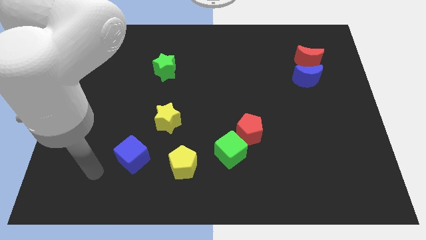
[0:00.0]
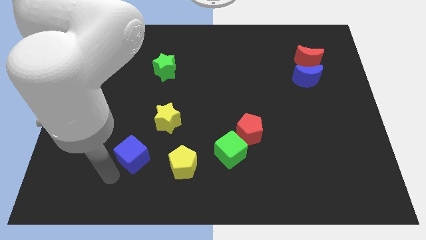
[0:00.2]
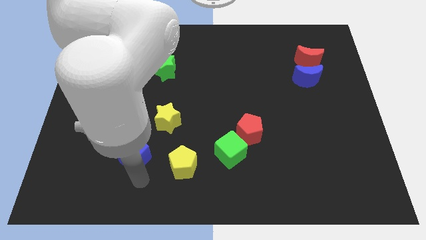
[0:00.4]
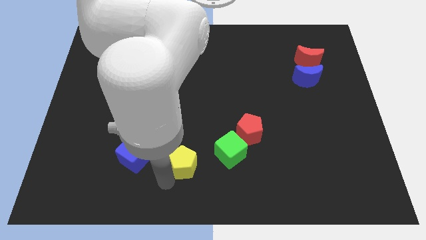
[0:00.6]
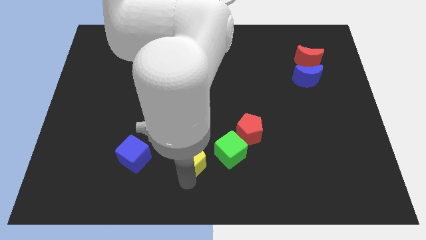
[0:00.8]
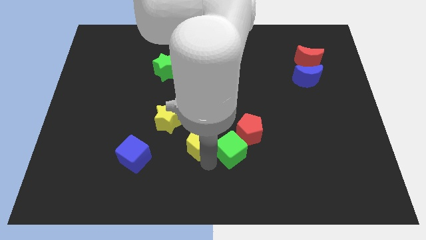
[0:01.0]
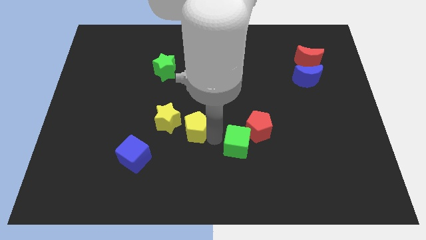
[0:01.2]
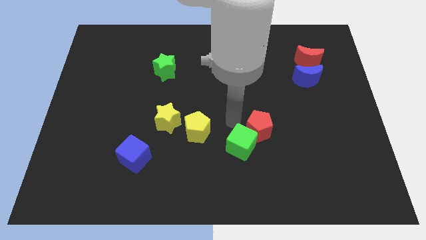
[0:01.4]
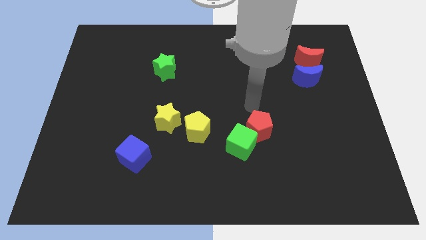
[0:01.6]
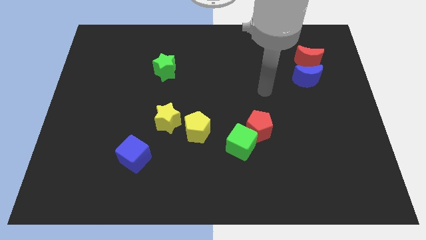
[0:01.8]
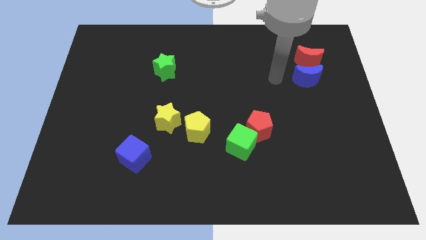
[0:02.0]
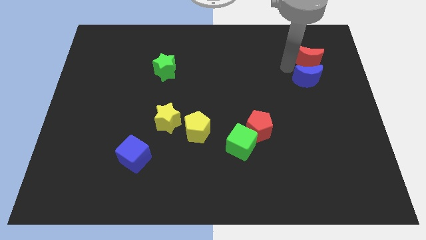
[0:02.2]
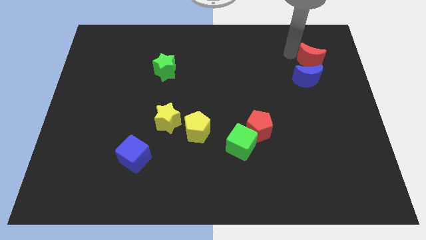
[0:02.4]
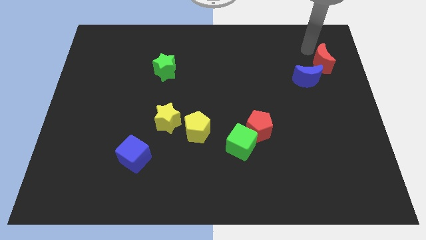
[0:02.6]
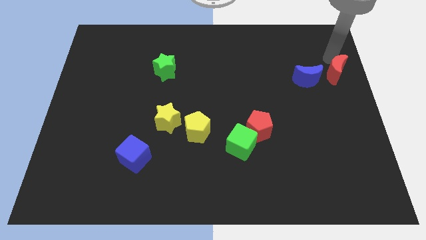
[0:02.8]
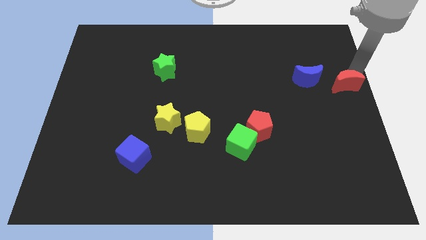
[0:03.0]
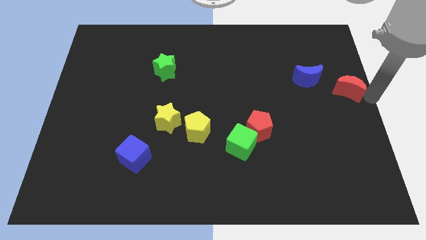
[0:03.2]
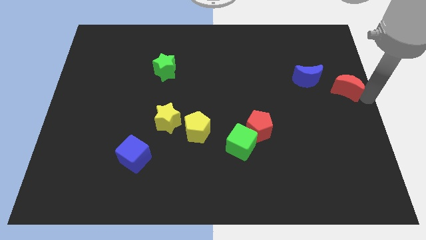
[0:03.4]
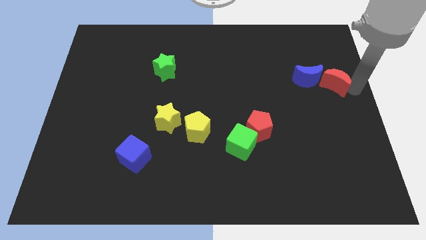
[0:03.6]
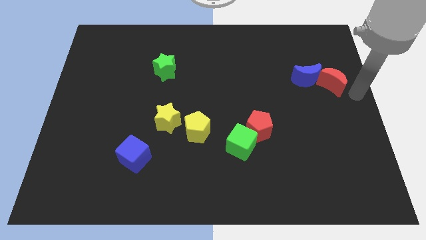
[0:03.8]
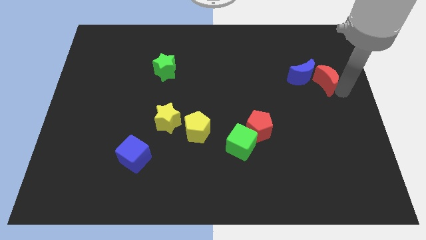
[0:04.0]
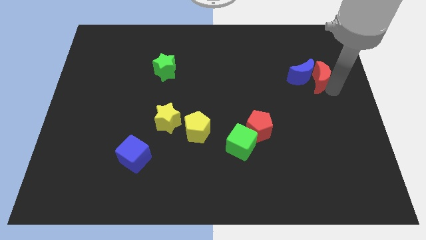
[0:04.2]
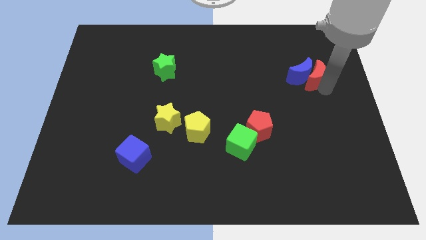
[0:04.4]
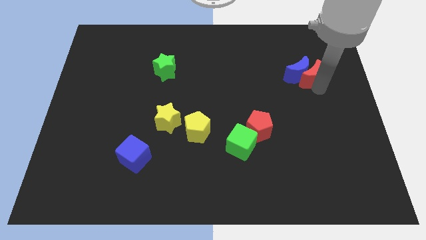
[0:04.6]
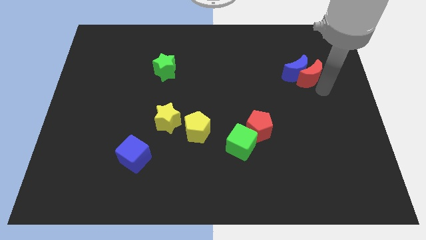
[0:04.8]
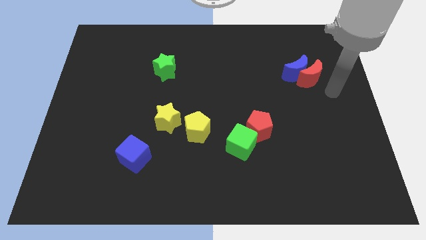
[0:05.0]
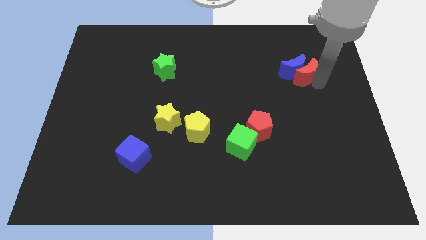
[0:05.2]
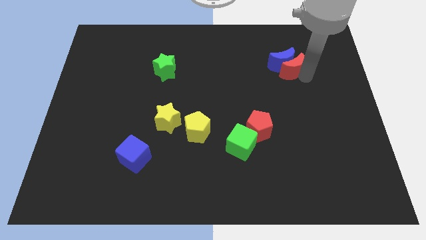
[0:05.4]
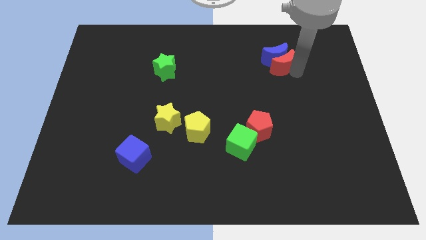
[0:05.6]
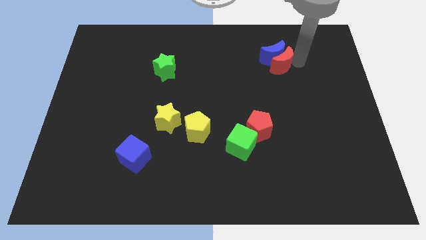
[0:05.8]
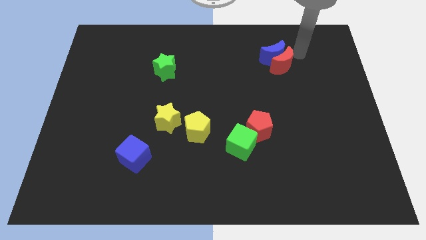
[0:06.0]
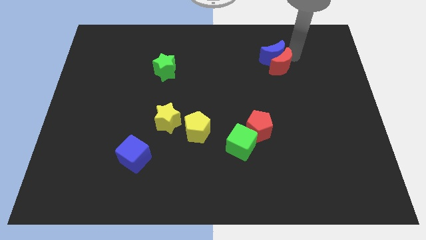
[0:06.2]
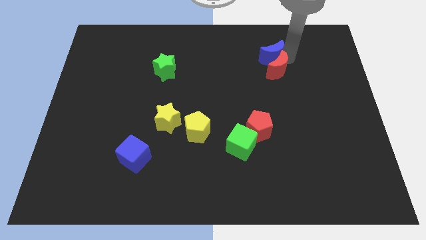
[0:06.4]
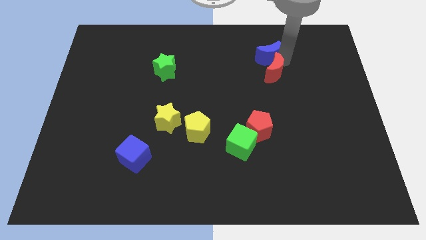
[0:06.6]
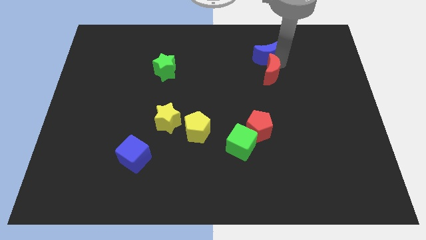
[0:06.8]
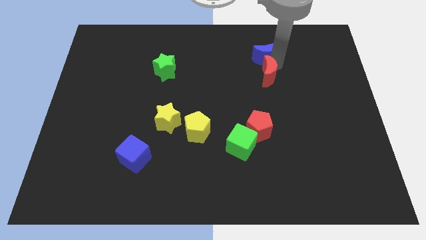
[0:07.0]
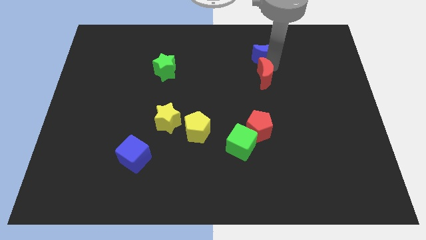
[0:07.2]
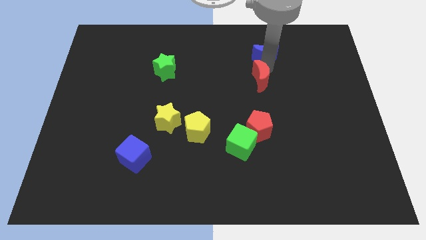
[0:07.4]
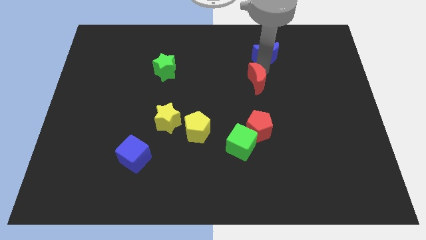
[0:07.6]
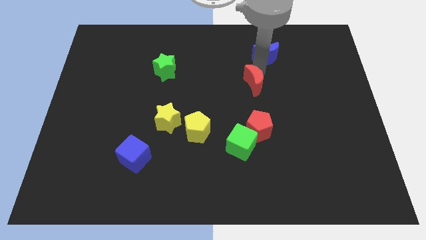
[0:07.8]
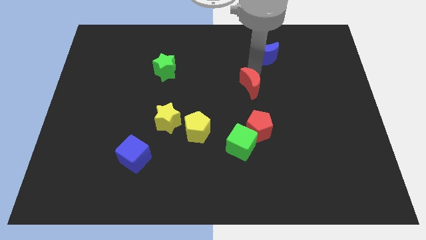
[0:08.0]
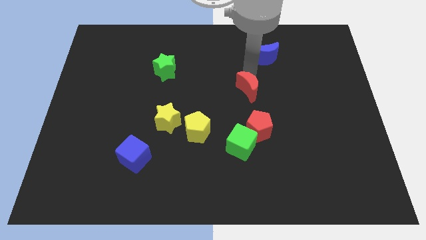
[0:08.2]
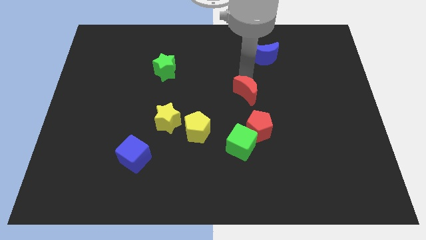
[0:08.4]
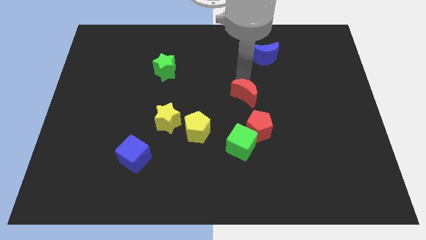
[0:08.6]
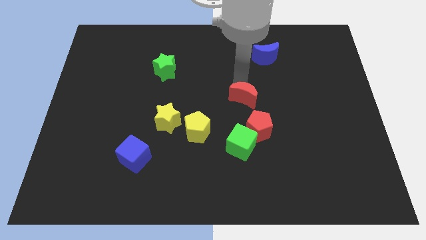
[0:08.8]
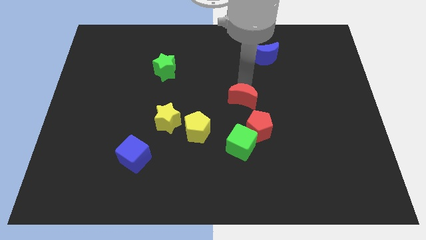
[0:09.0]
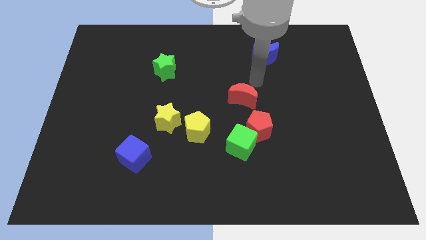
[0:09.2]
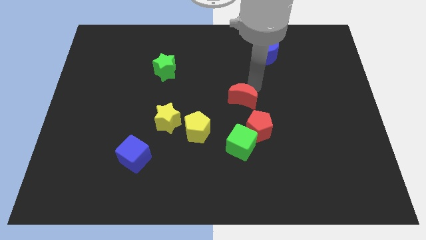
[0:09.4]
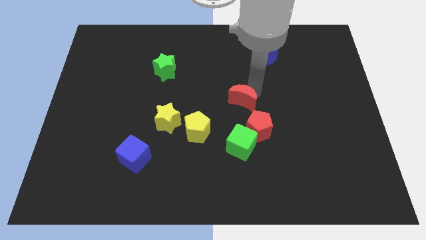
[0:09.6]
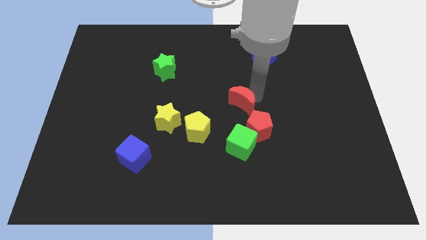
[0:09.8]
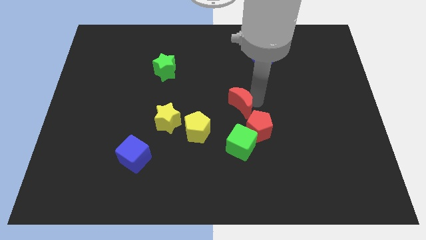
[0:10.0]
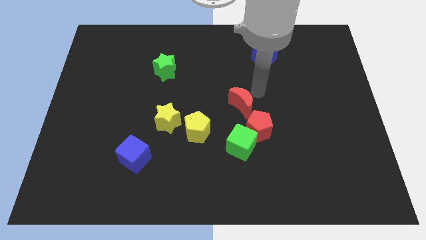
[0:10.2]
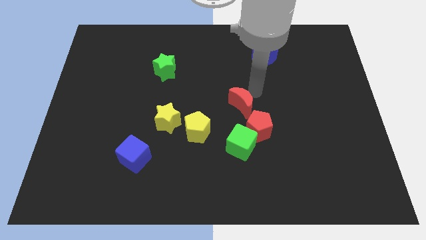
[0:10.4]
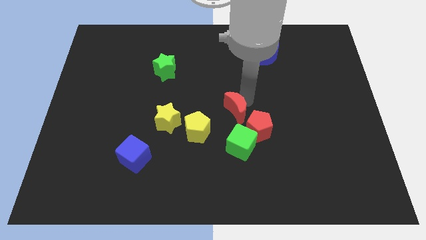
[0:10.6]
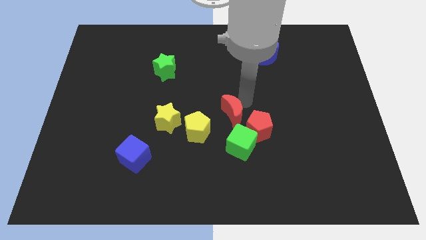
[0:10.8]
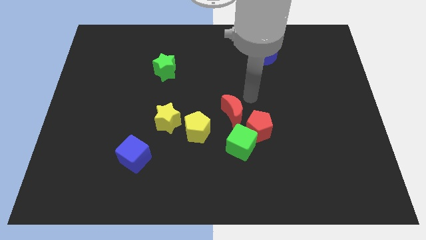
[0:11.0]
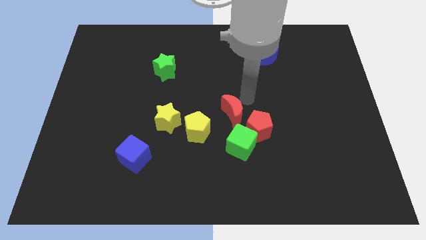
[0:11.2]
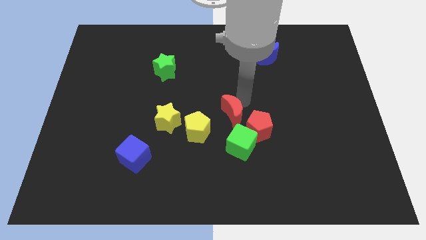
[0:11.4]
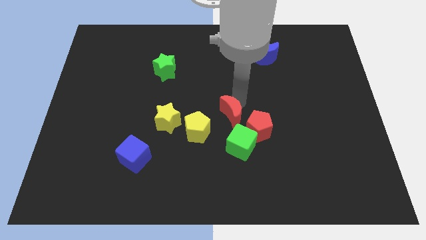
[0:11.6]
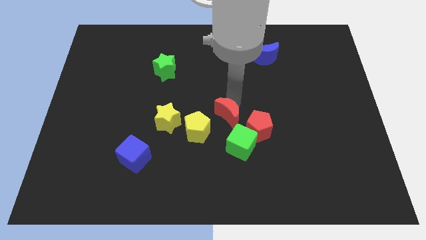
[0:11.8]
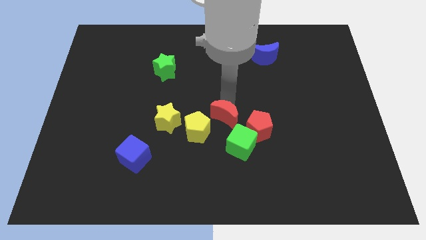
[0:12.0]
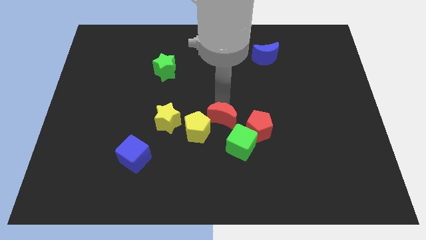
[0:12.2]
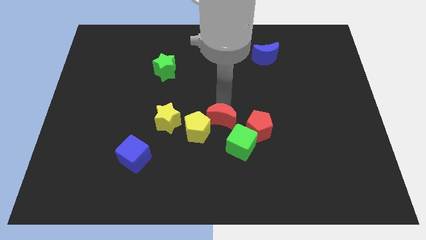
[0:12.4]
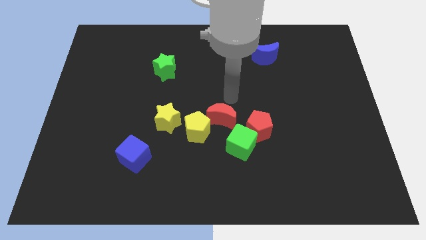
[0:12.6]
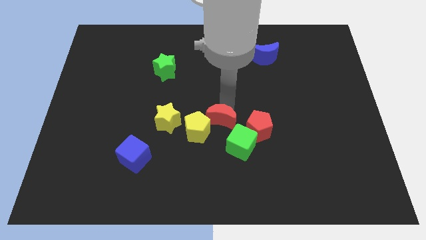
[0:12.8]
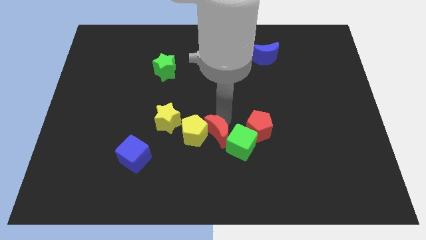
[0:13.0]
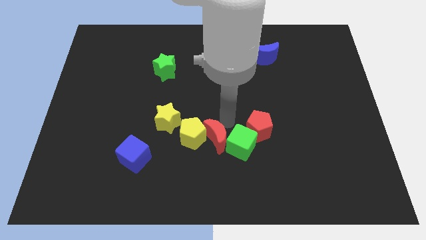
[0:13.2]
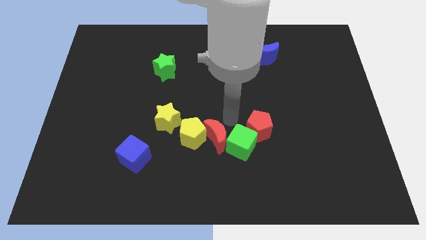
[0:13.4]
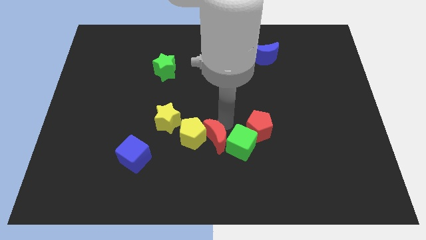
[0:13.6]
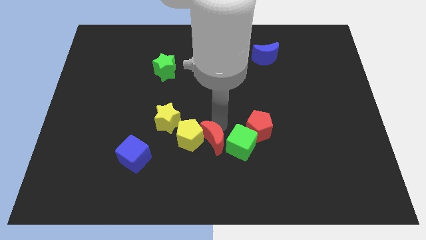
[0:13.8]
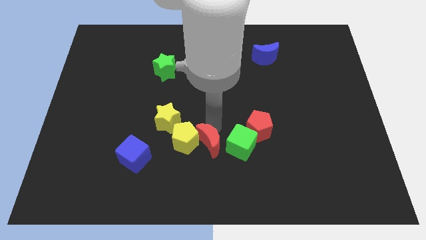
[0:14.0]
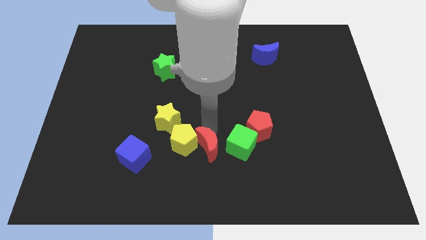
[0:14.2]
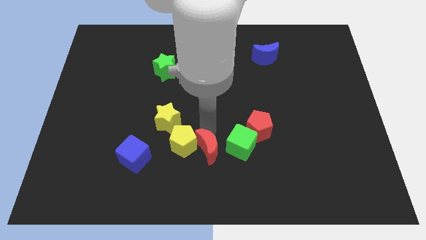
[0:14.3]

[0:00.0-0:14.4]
put the red moon to the right side of the blue cube

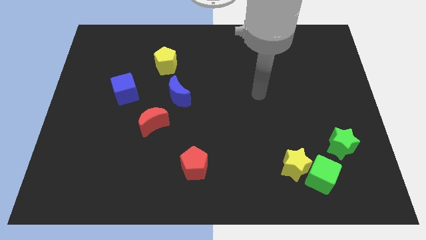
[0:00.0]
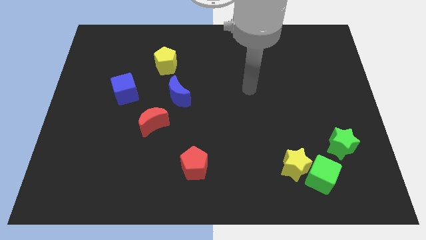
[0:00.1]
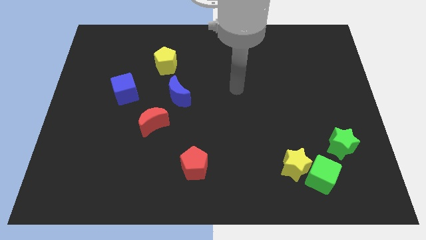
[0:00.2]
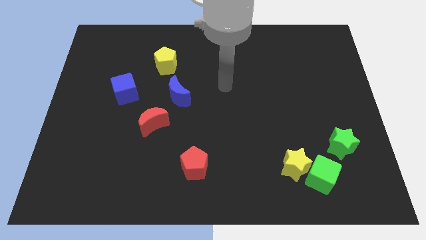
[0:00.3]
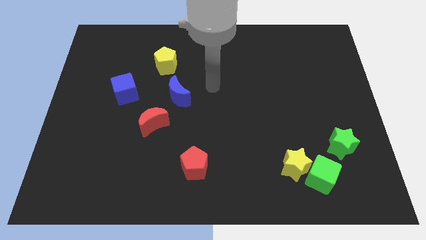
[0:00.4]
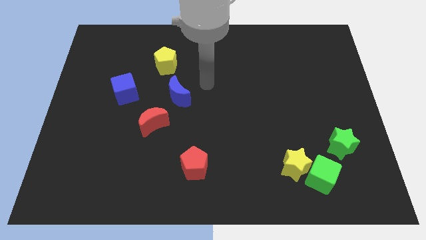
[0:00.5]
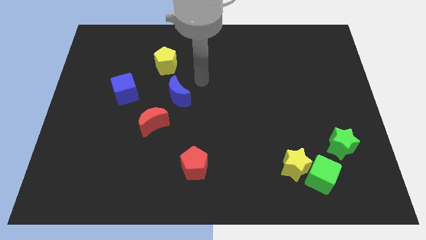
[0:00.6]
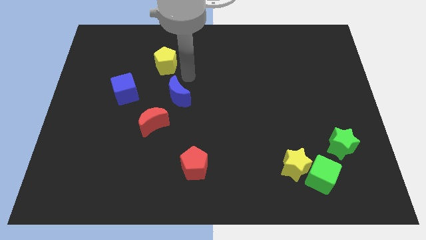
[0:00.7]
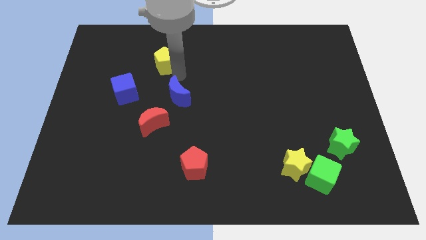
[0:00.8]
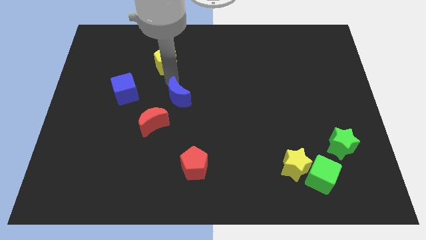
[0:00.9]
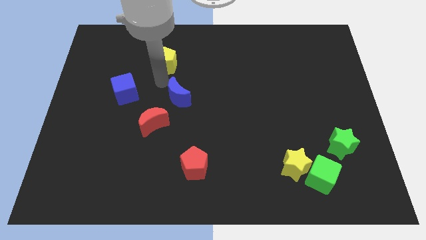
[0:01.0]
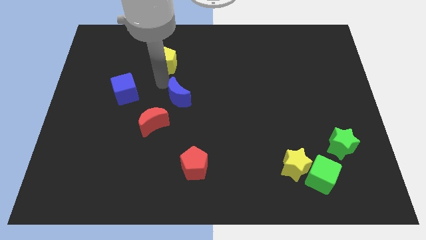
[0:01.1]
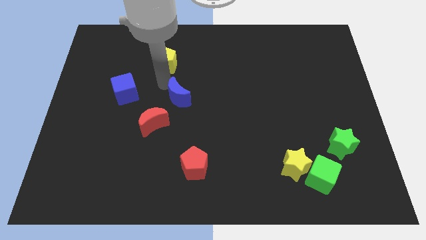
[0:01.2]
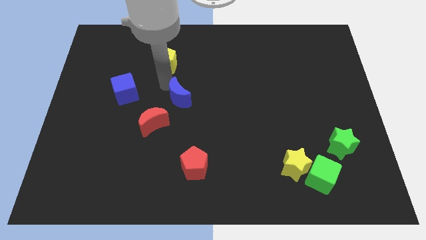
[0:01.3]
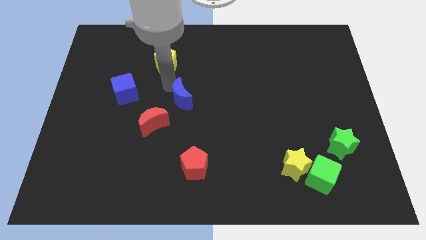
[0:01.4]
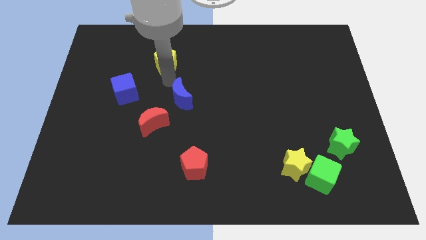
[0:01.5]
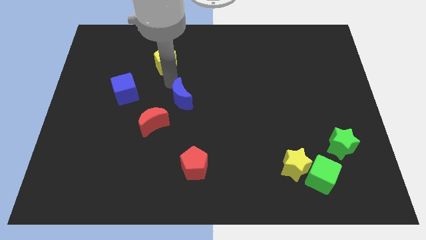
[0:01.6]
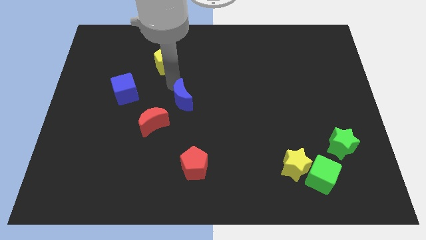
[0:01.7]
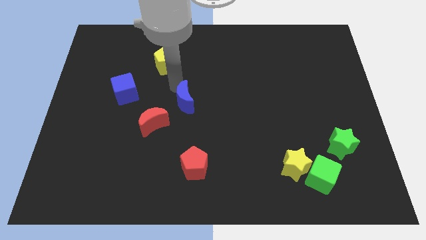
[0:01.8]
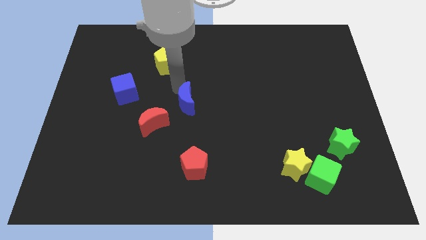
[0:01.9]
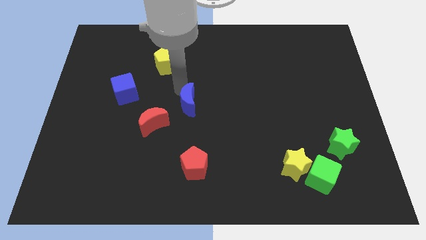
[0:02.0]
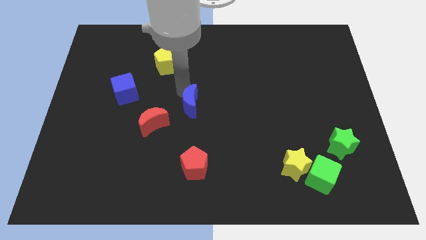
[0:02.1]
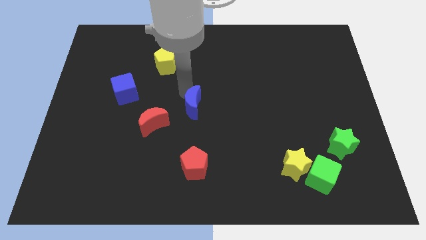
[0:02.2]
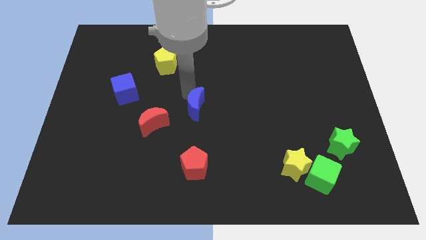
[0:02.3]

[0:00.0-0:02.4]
move the blue moon right of the red moon
